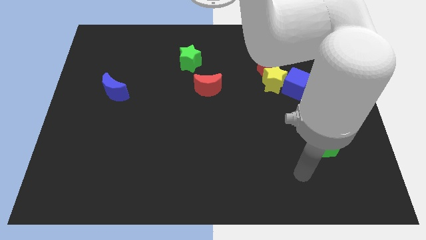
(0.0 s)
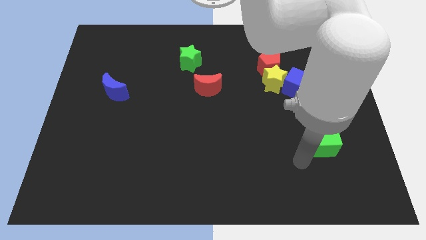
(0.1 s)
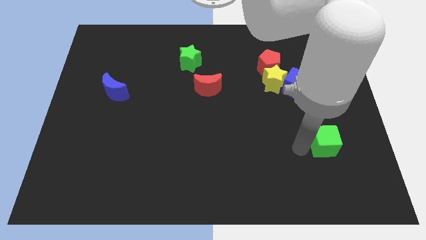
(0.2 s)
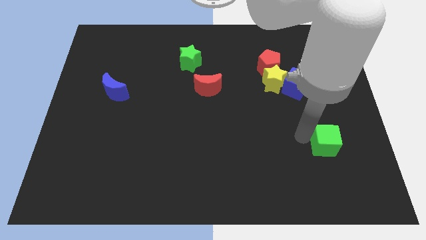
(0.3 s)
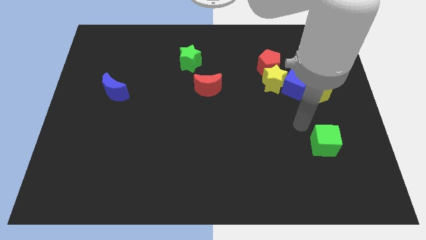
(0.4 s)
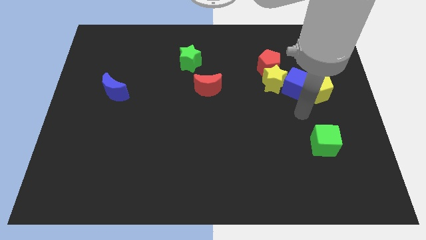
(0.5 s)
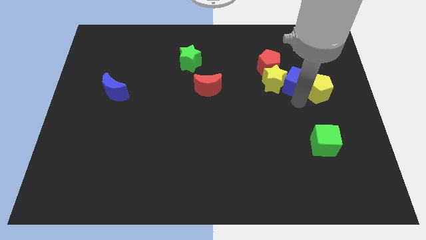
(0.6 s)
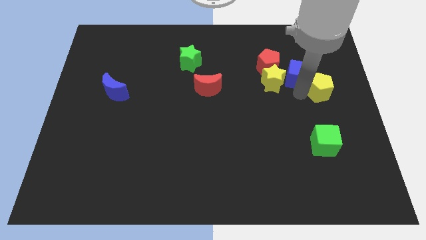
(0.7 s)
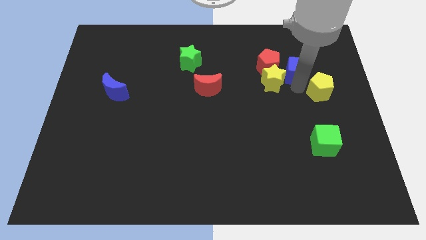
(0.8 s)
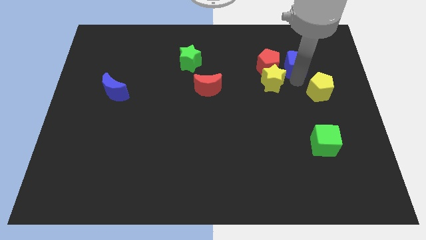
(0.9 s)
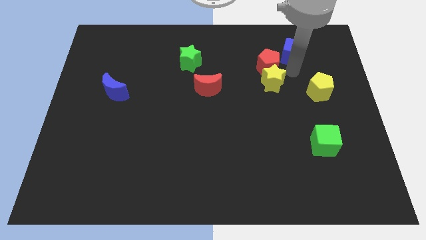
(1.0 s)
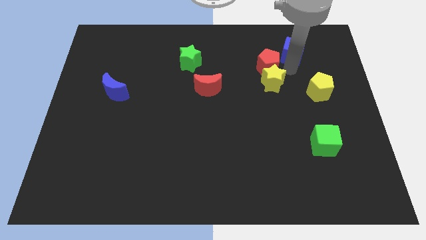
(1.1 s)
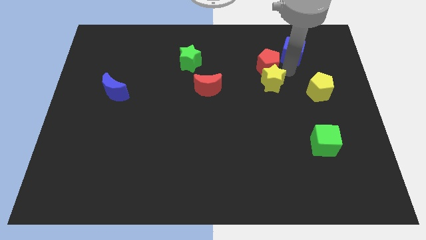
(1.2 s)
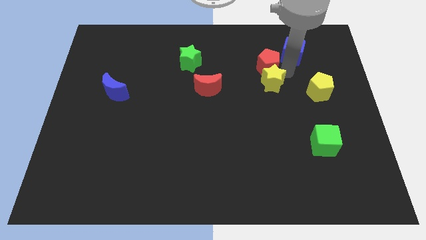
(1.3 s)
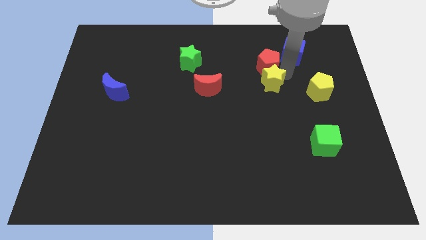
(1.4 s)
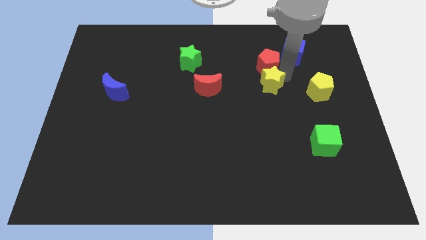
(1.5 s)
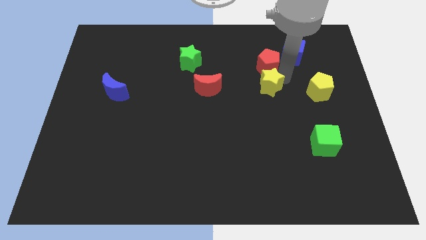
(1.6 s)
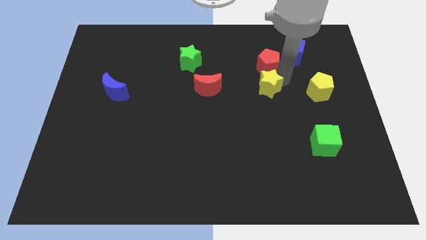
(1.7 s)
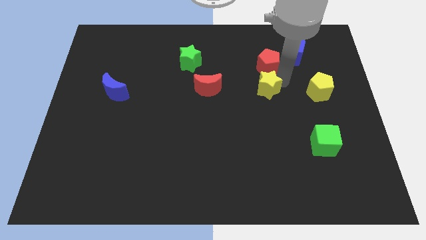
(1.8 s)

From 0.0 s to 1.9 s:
pull the yellow star apart from the red pentagon and blue cube

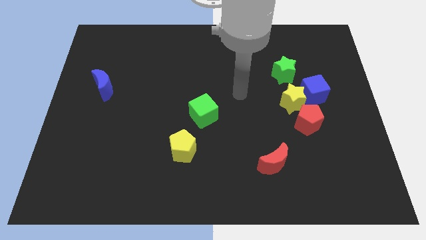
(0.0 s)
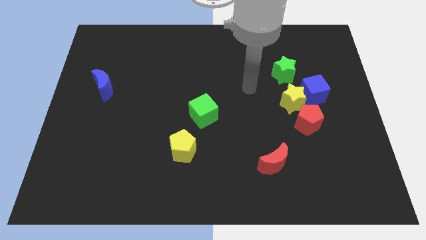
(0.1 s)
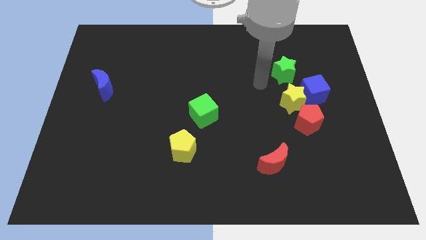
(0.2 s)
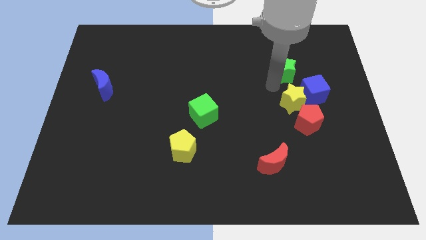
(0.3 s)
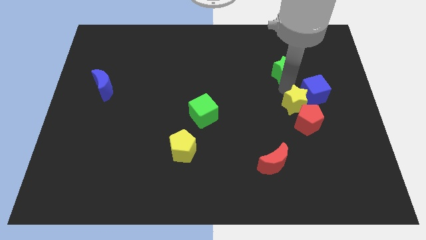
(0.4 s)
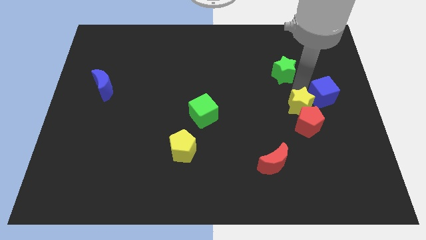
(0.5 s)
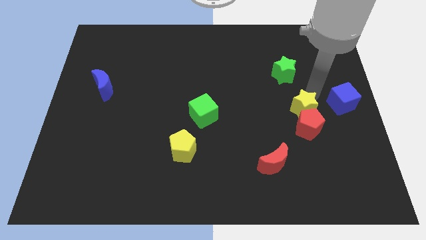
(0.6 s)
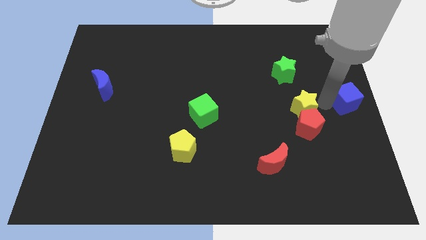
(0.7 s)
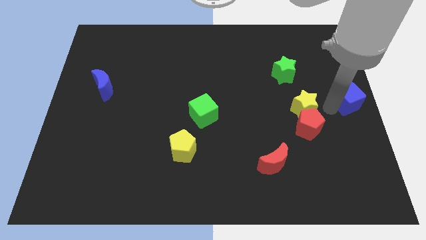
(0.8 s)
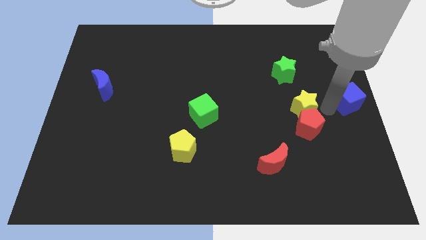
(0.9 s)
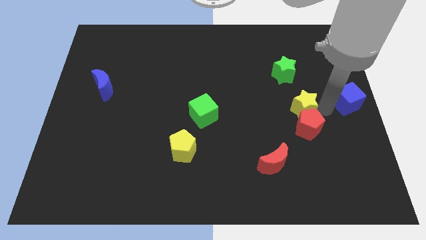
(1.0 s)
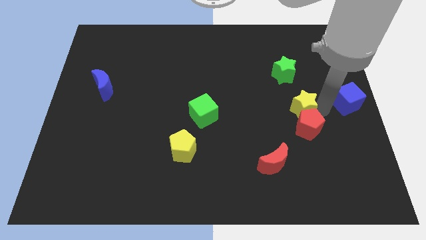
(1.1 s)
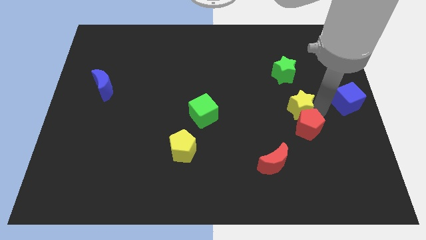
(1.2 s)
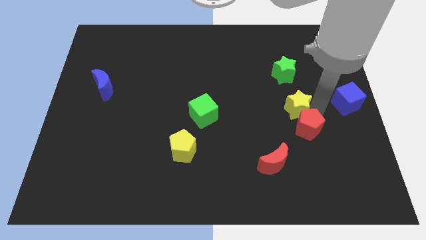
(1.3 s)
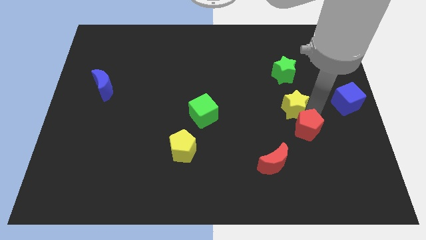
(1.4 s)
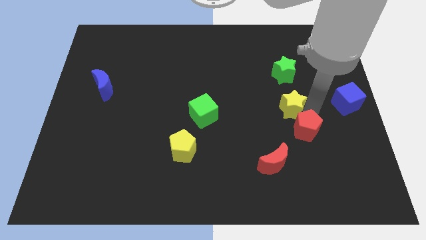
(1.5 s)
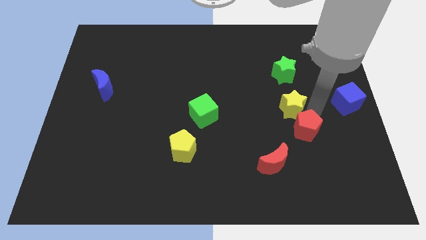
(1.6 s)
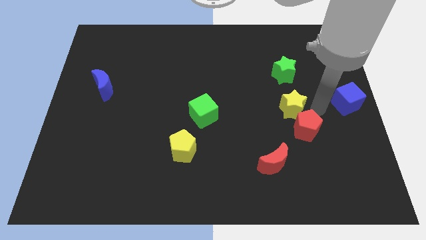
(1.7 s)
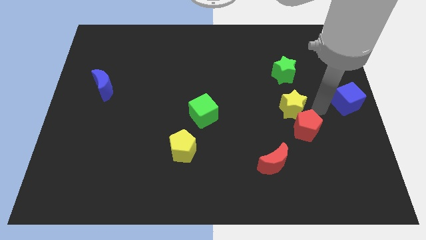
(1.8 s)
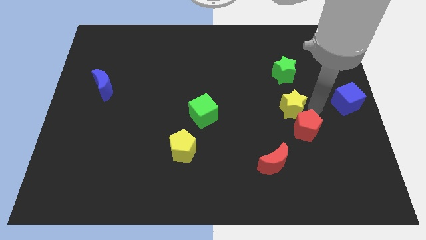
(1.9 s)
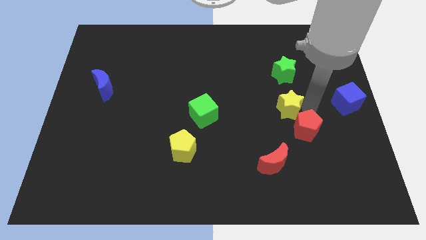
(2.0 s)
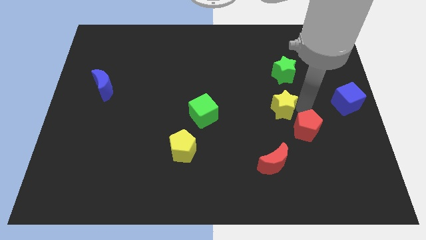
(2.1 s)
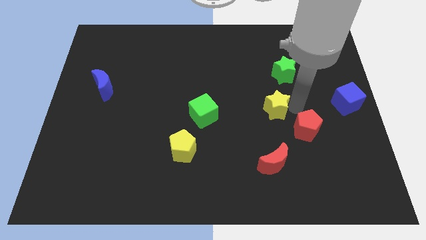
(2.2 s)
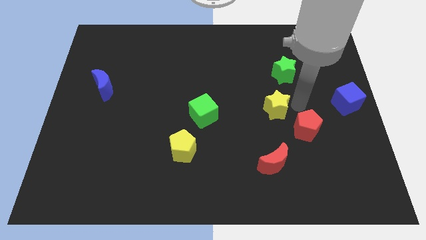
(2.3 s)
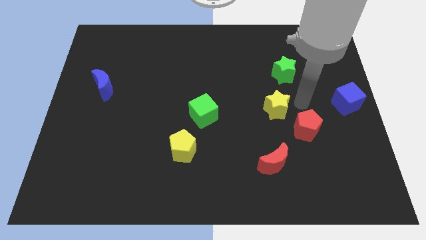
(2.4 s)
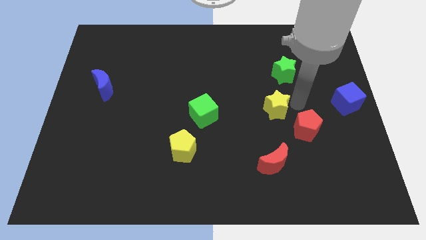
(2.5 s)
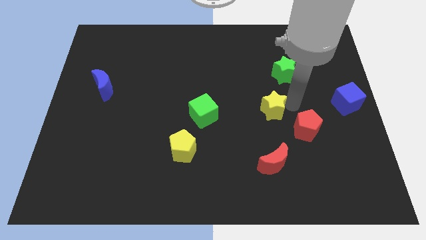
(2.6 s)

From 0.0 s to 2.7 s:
separate the yellow star from the blue cube, red pentagon, and green star

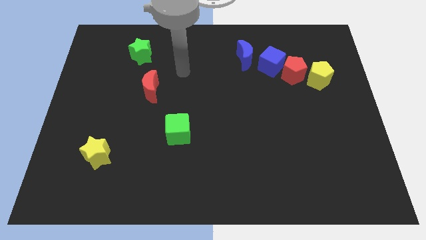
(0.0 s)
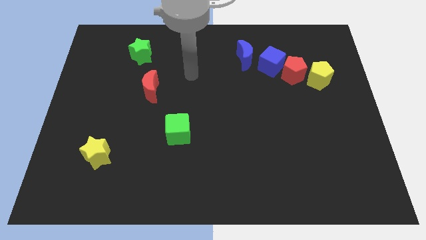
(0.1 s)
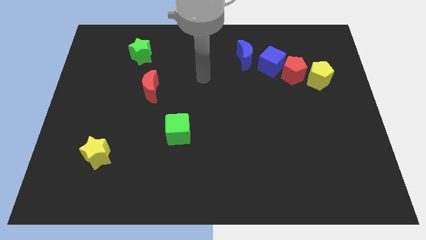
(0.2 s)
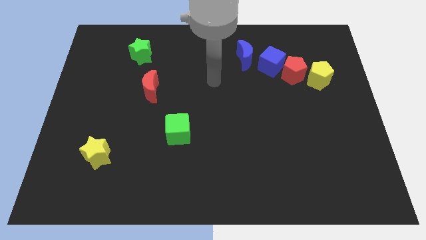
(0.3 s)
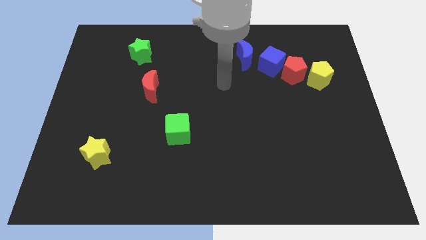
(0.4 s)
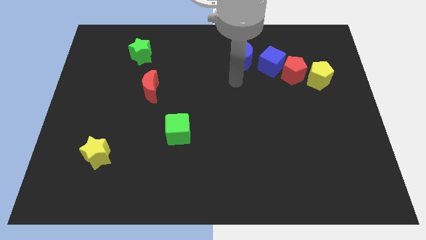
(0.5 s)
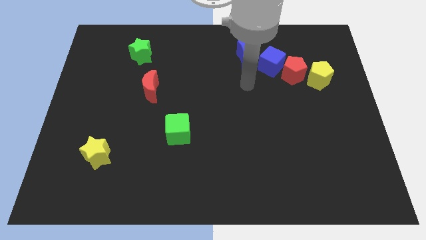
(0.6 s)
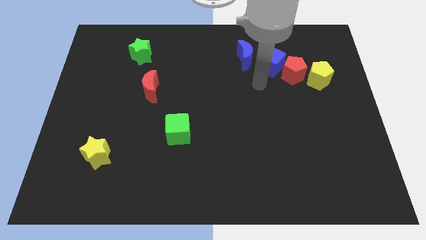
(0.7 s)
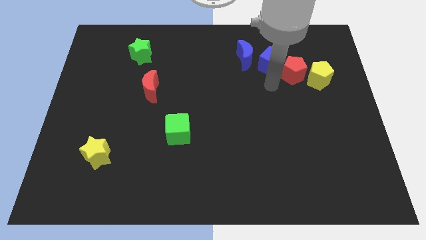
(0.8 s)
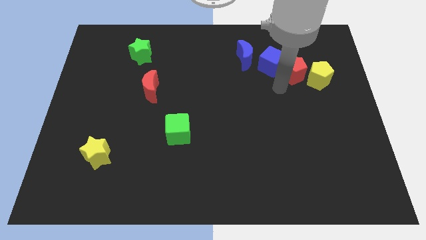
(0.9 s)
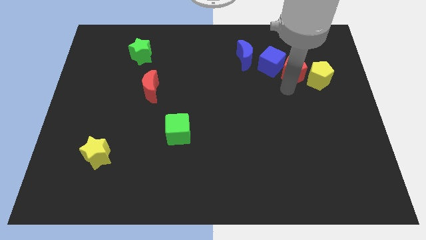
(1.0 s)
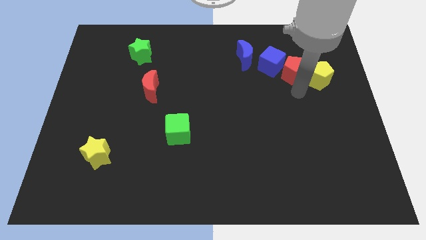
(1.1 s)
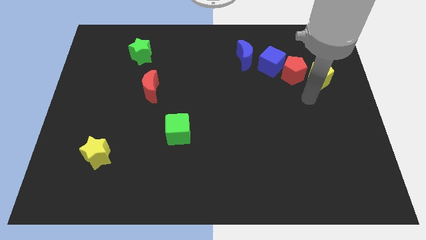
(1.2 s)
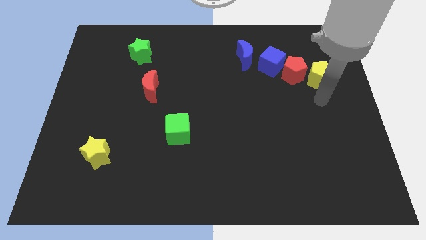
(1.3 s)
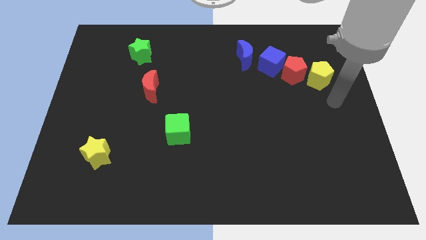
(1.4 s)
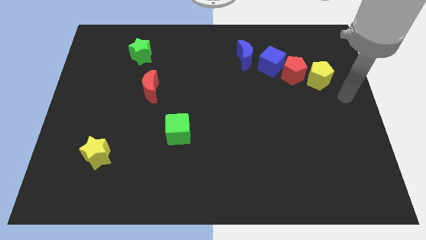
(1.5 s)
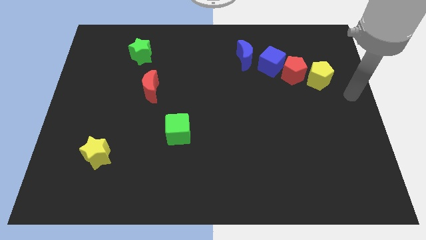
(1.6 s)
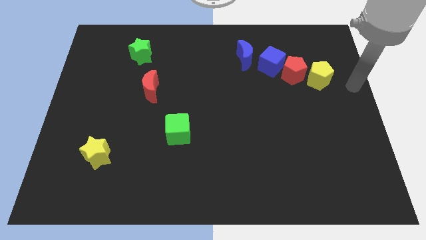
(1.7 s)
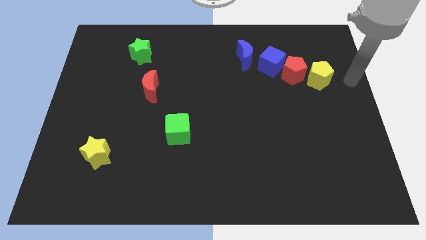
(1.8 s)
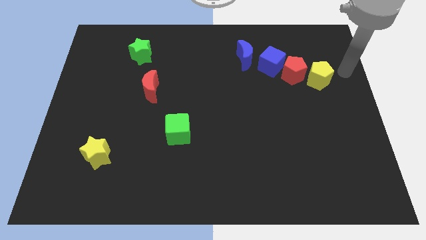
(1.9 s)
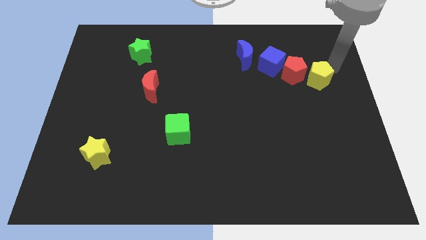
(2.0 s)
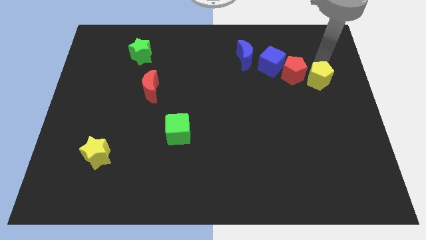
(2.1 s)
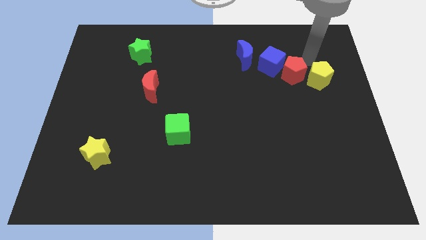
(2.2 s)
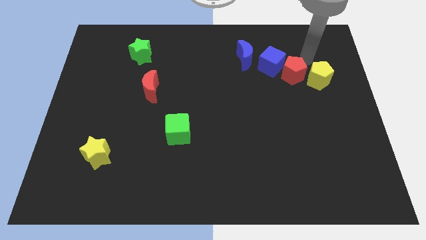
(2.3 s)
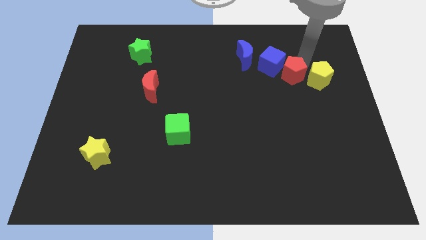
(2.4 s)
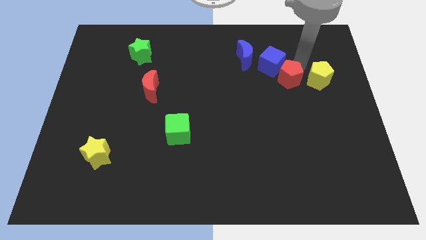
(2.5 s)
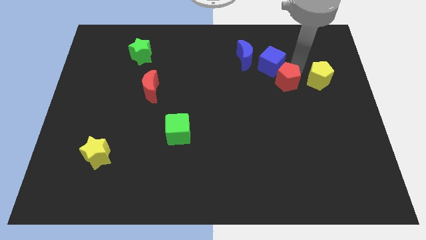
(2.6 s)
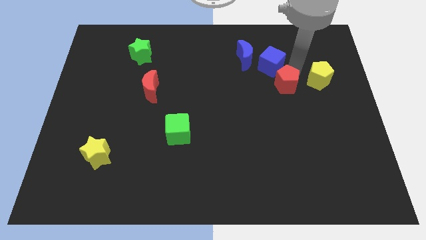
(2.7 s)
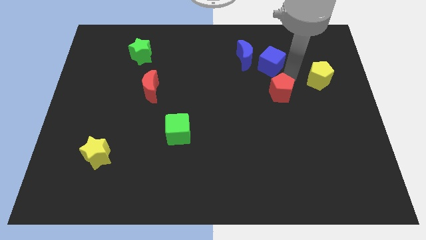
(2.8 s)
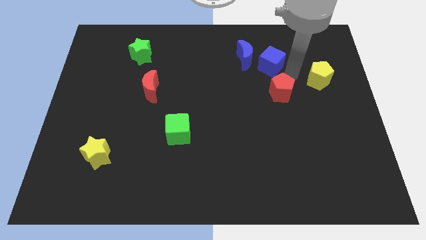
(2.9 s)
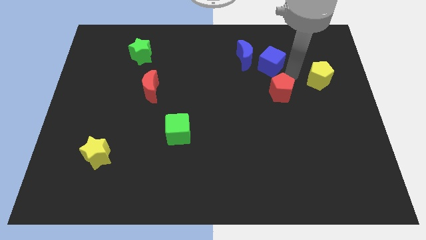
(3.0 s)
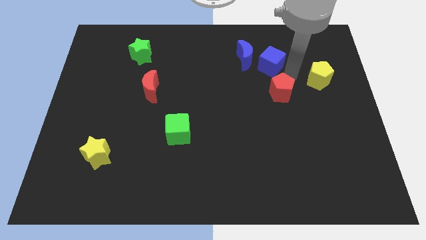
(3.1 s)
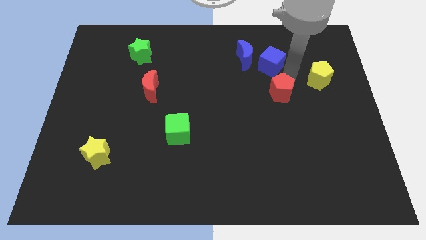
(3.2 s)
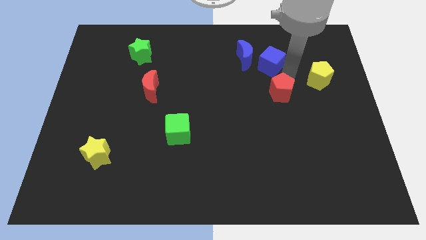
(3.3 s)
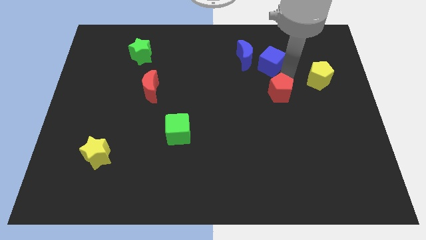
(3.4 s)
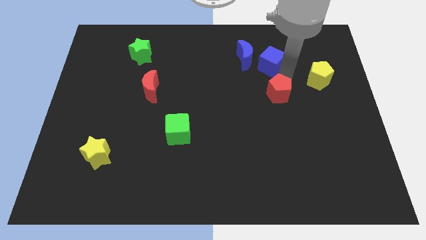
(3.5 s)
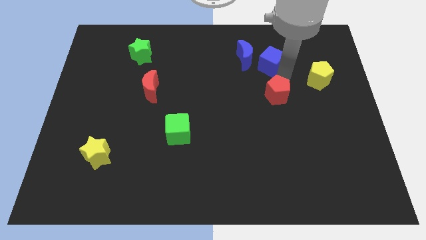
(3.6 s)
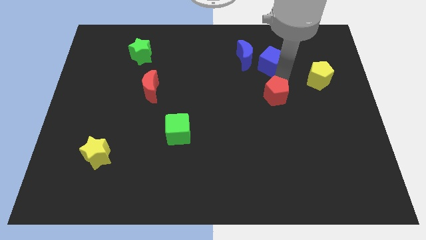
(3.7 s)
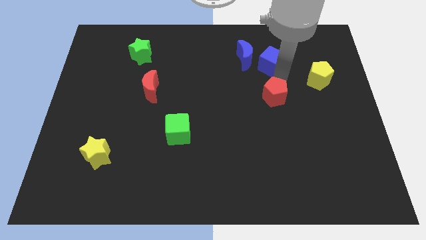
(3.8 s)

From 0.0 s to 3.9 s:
pull the red pentagon apart from the blue cube and yellow pentagon

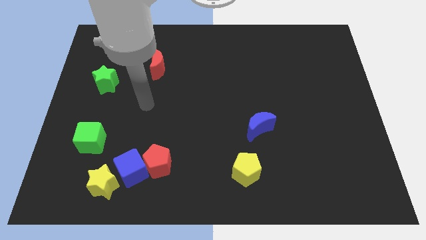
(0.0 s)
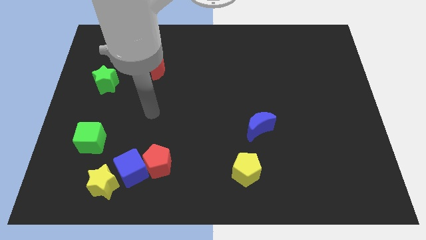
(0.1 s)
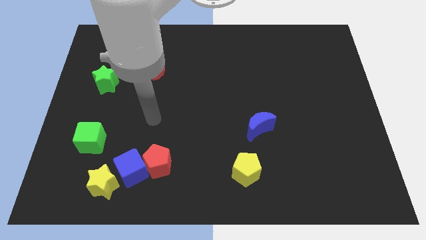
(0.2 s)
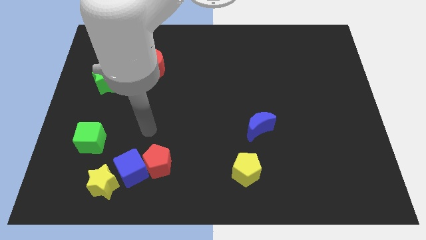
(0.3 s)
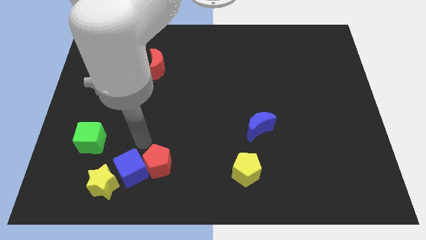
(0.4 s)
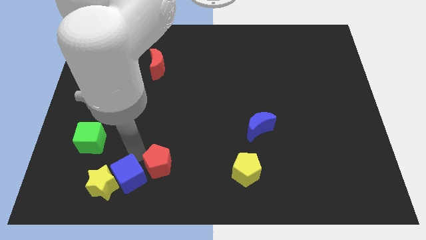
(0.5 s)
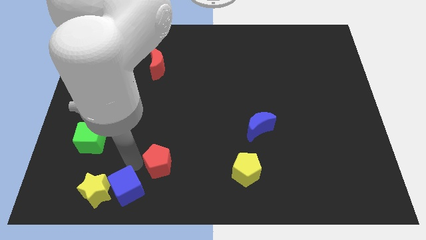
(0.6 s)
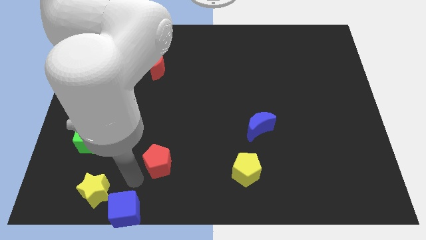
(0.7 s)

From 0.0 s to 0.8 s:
separate the red pentagon from the blue cube
